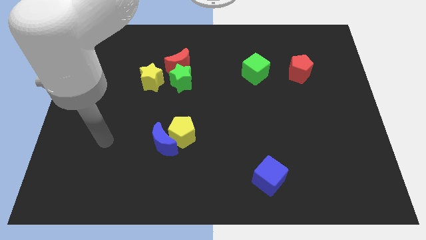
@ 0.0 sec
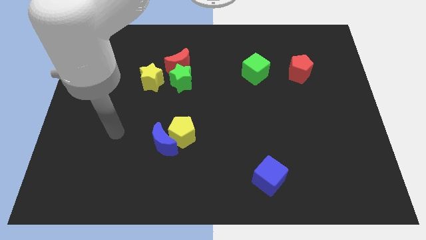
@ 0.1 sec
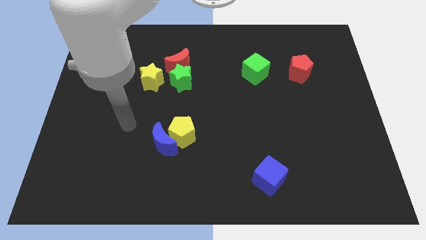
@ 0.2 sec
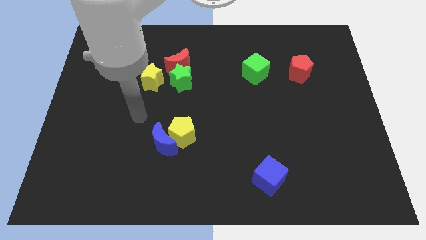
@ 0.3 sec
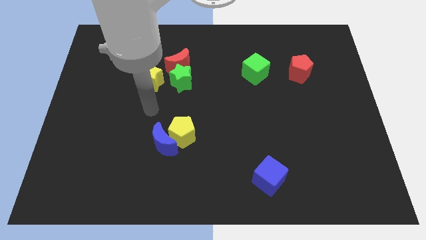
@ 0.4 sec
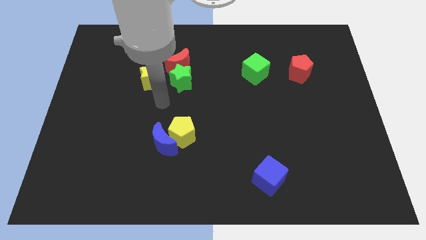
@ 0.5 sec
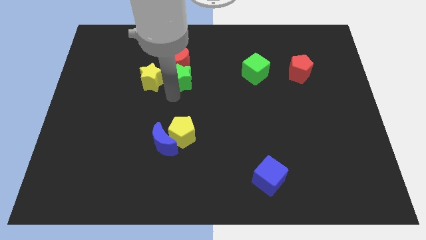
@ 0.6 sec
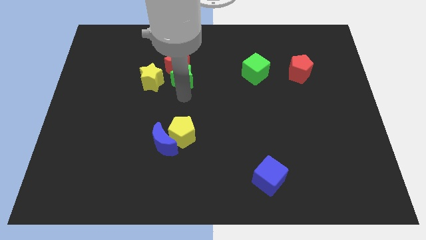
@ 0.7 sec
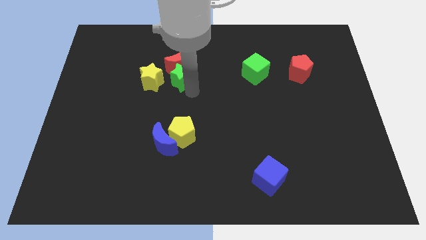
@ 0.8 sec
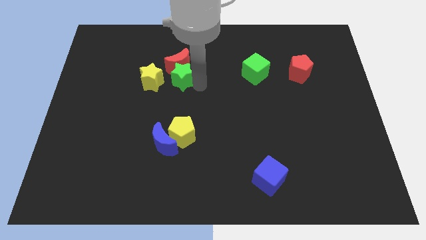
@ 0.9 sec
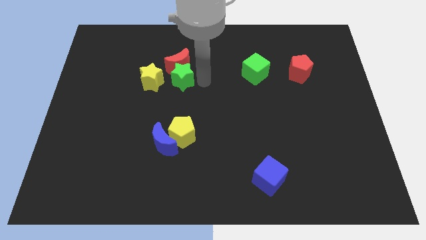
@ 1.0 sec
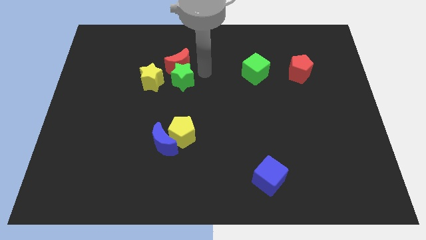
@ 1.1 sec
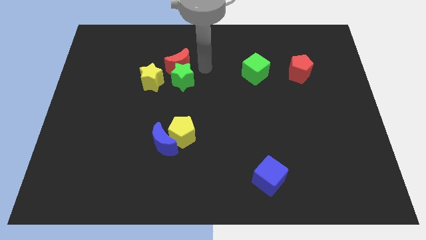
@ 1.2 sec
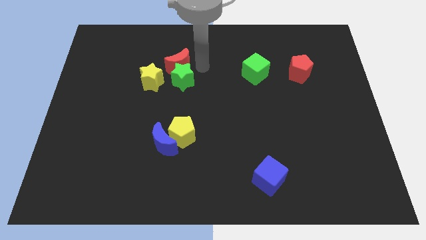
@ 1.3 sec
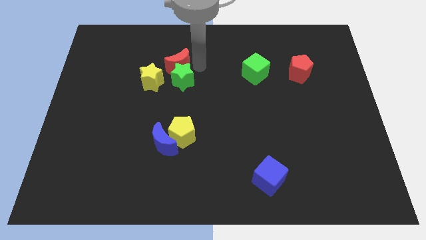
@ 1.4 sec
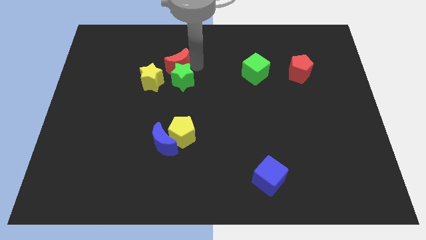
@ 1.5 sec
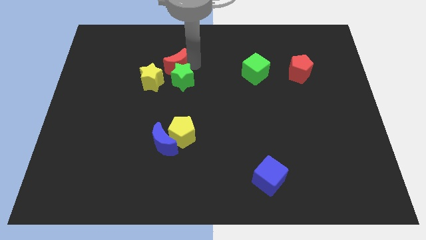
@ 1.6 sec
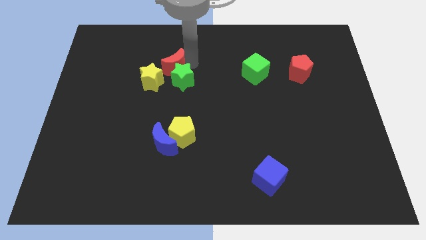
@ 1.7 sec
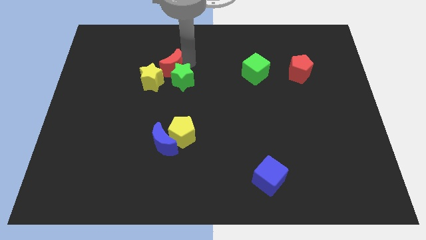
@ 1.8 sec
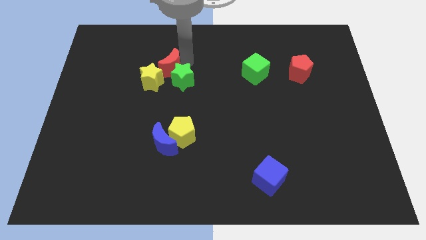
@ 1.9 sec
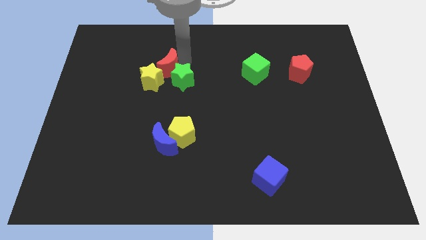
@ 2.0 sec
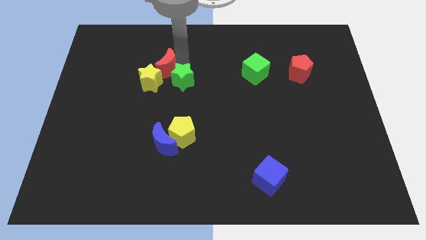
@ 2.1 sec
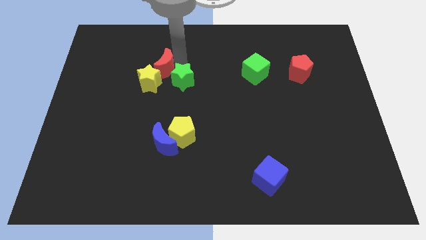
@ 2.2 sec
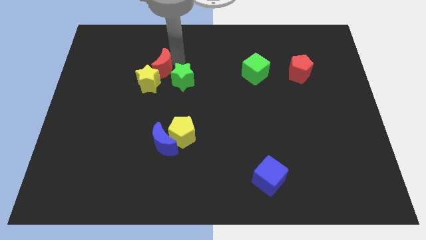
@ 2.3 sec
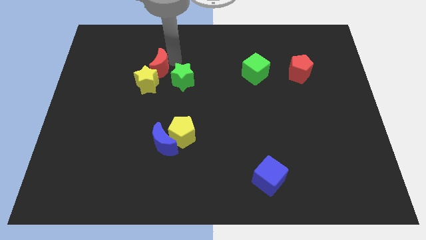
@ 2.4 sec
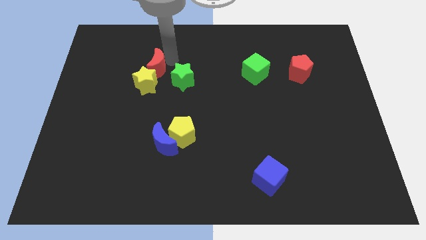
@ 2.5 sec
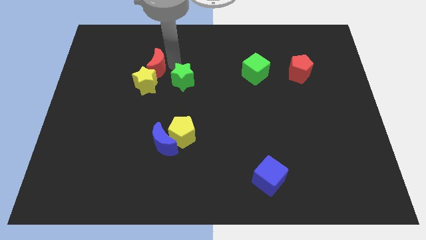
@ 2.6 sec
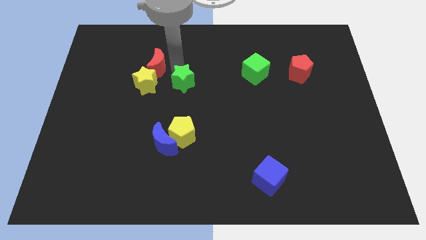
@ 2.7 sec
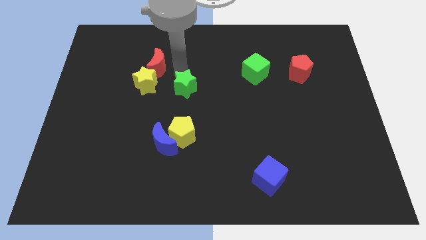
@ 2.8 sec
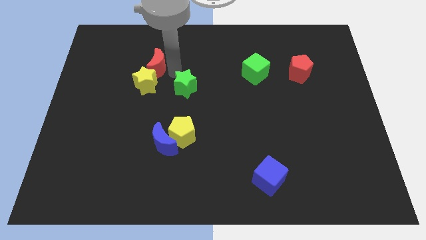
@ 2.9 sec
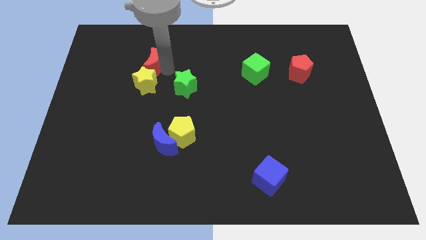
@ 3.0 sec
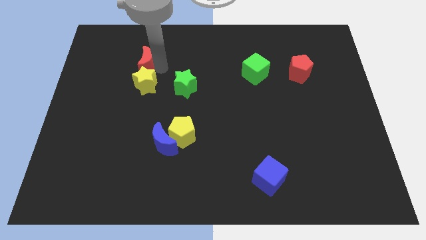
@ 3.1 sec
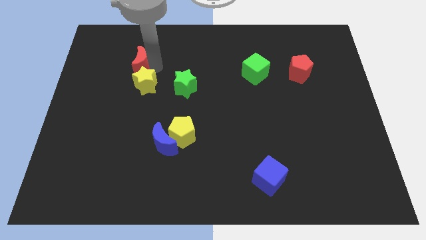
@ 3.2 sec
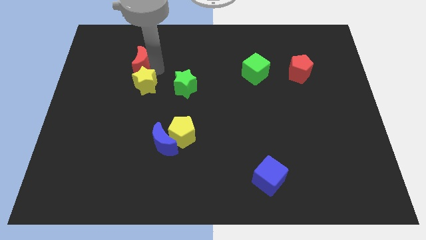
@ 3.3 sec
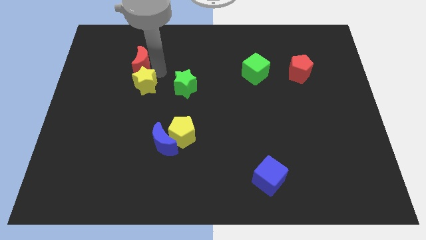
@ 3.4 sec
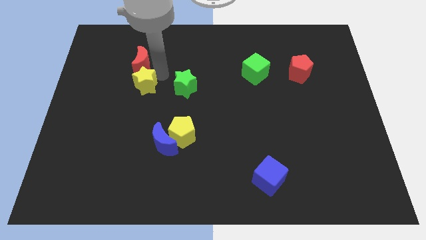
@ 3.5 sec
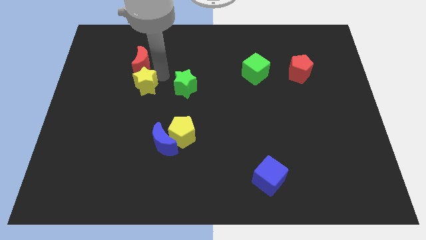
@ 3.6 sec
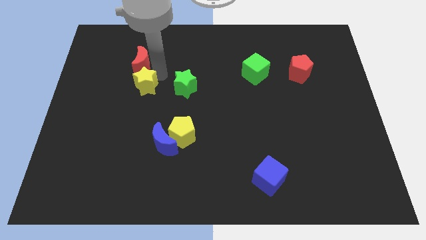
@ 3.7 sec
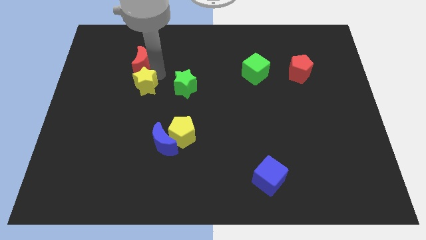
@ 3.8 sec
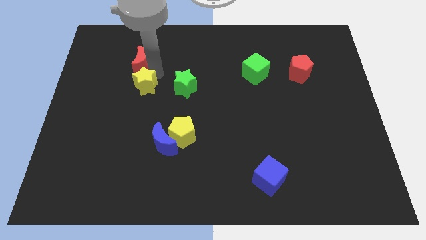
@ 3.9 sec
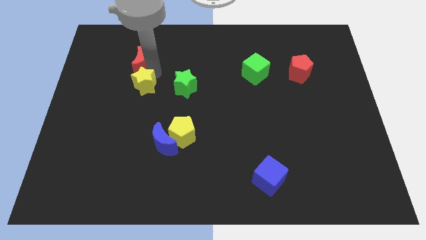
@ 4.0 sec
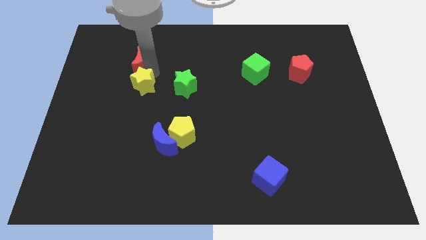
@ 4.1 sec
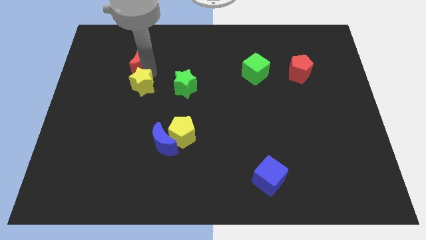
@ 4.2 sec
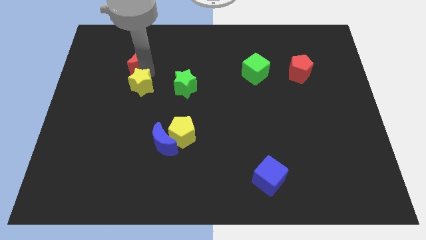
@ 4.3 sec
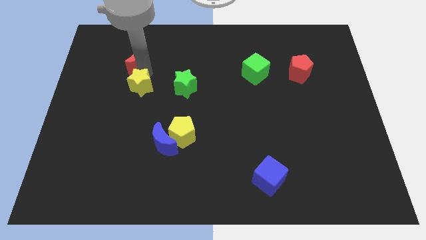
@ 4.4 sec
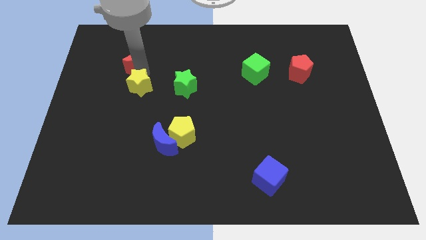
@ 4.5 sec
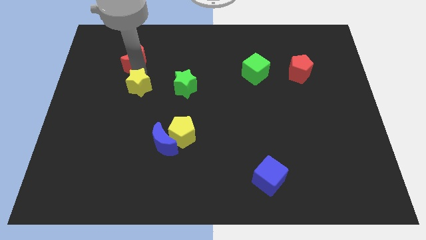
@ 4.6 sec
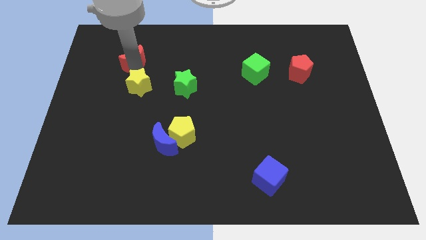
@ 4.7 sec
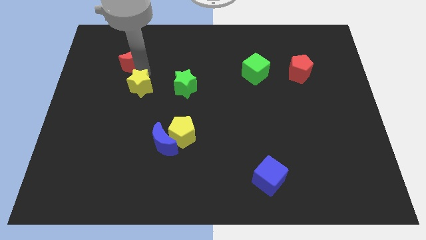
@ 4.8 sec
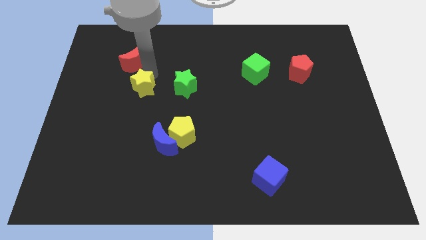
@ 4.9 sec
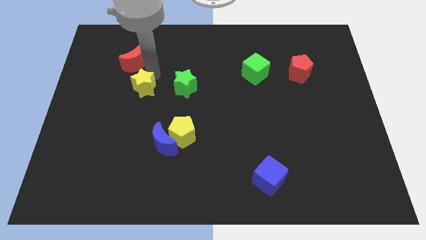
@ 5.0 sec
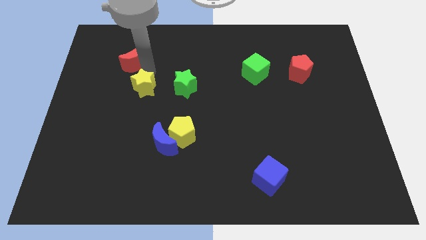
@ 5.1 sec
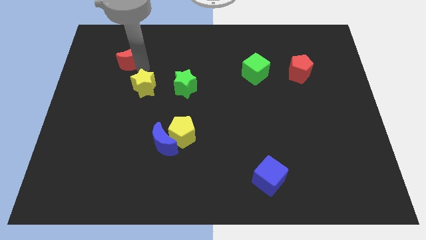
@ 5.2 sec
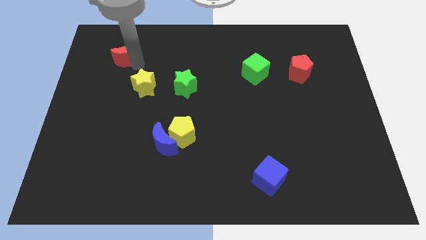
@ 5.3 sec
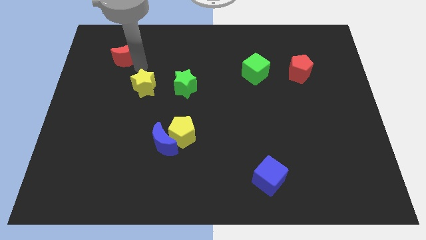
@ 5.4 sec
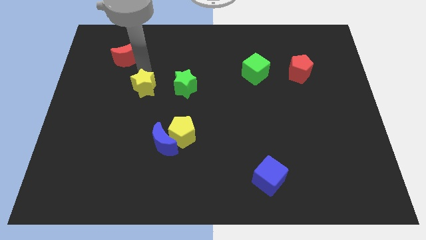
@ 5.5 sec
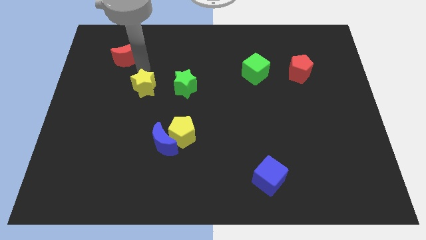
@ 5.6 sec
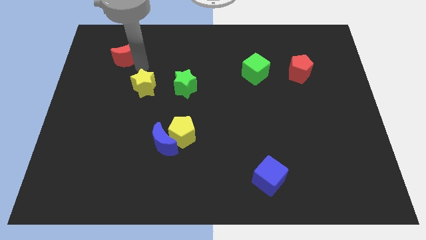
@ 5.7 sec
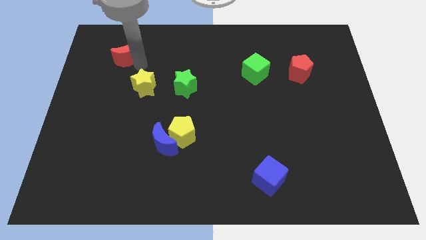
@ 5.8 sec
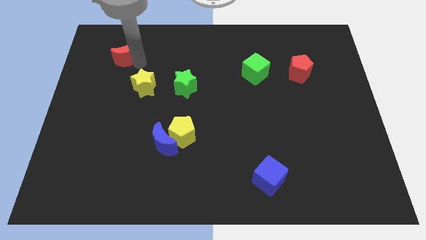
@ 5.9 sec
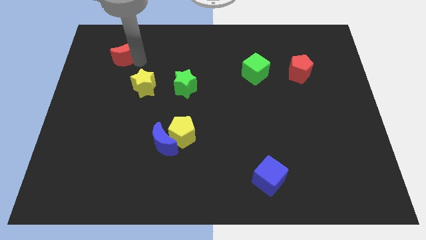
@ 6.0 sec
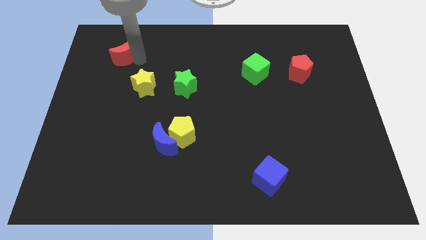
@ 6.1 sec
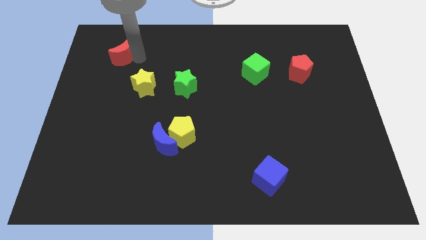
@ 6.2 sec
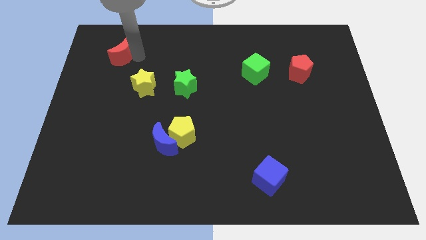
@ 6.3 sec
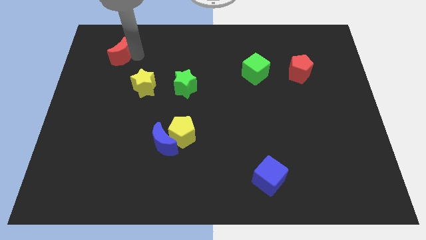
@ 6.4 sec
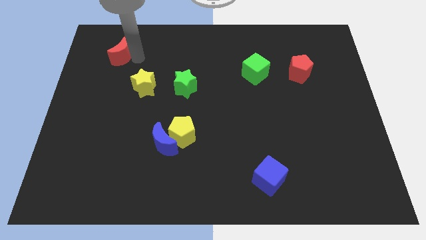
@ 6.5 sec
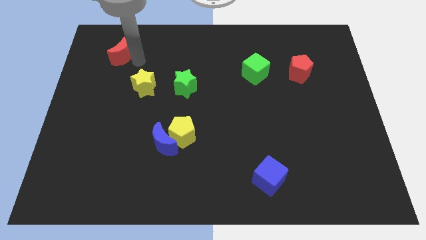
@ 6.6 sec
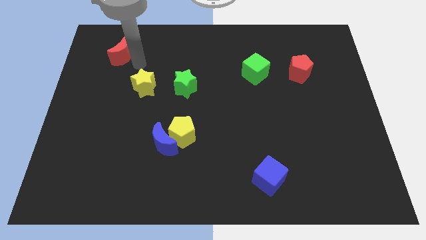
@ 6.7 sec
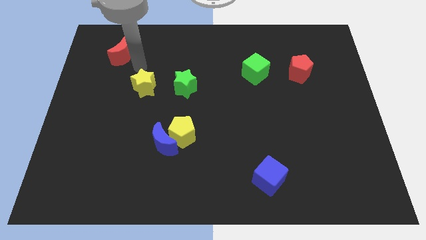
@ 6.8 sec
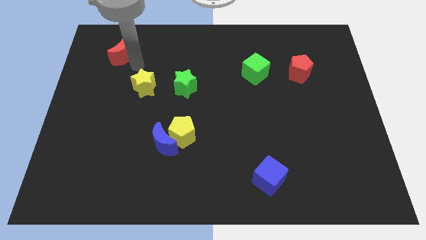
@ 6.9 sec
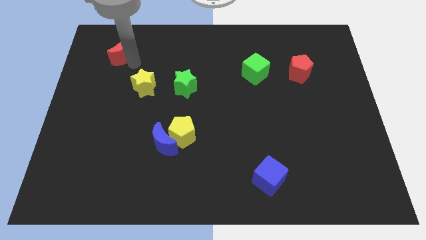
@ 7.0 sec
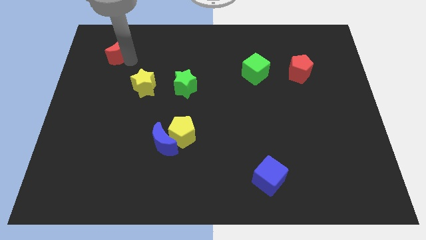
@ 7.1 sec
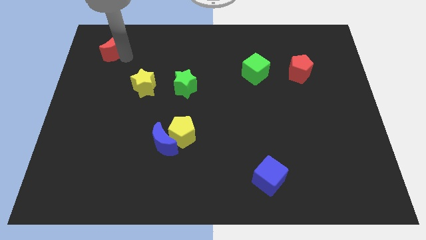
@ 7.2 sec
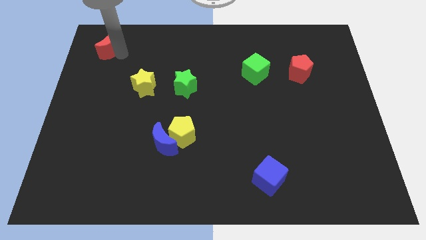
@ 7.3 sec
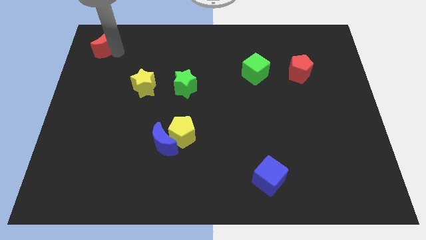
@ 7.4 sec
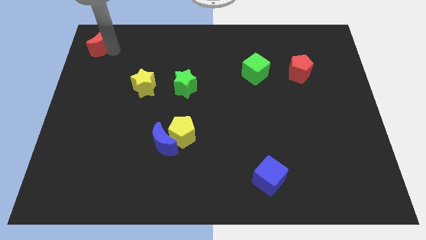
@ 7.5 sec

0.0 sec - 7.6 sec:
put the red moon to the top left corner

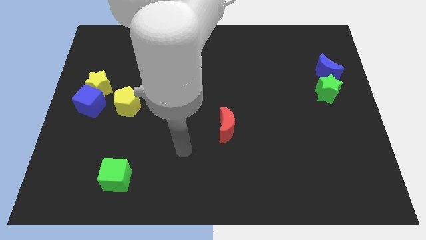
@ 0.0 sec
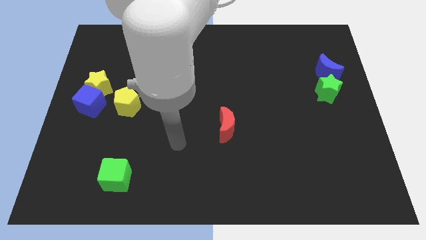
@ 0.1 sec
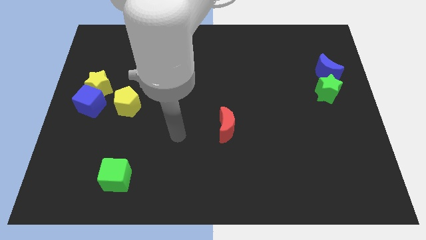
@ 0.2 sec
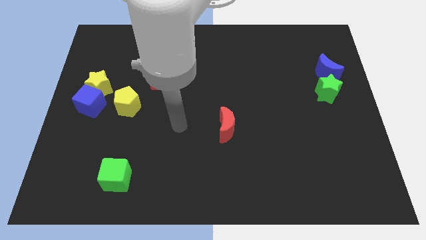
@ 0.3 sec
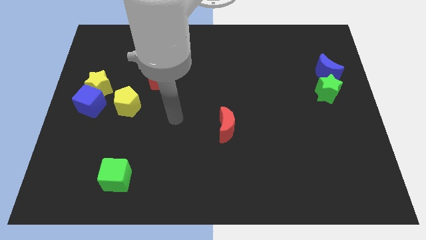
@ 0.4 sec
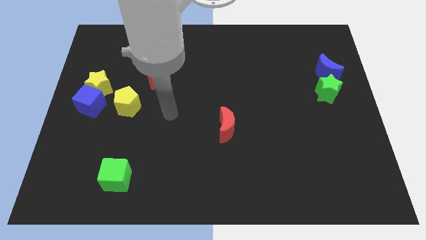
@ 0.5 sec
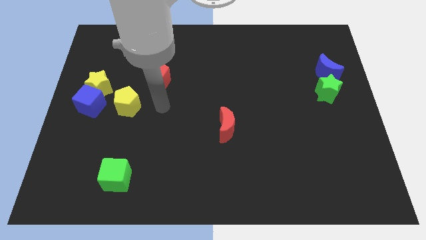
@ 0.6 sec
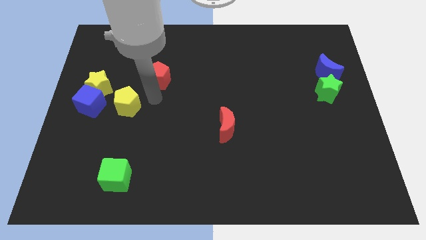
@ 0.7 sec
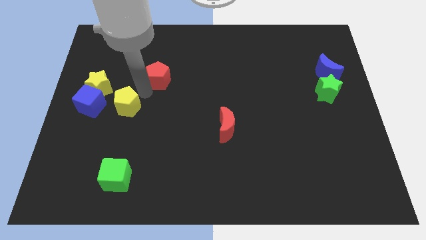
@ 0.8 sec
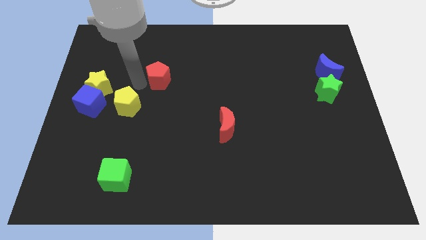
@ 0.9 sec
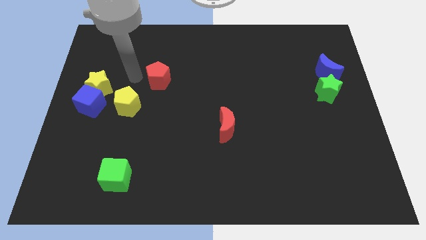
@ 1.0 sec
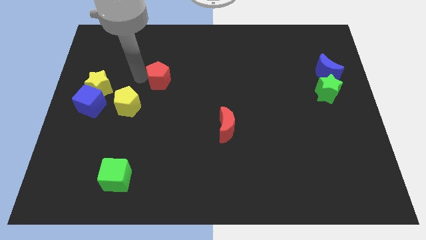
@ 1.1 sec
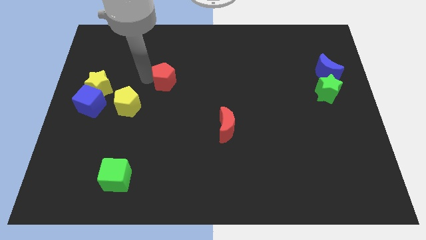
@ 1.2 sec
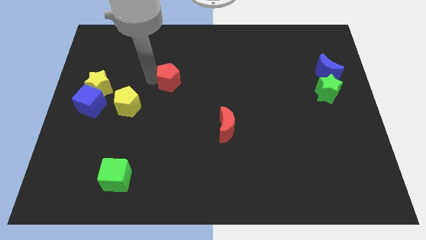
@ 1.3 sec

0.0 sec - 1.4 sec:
move the red pentagon to the center of the board
